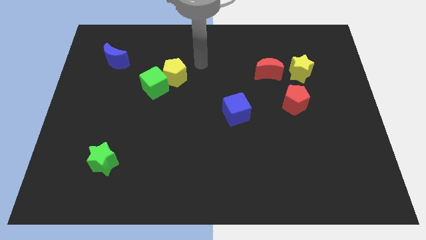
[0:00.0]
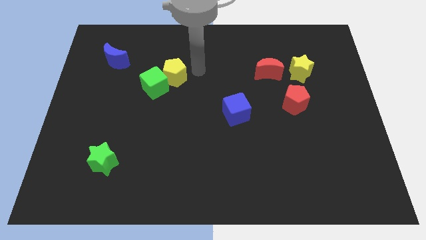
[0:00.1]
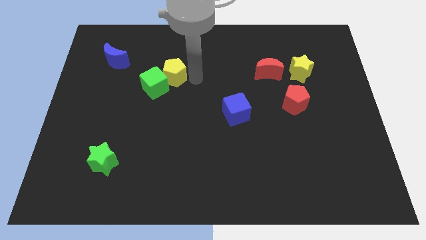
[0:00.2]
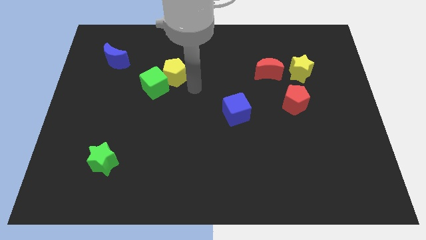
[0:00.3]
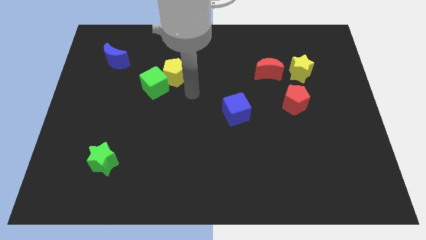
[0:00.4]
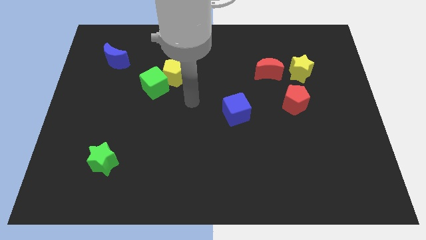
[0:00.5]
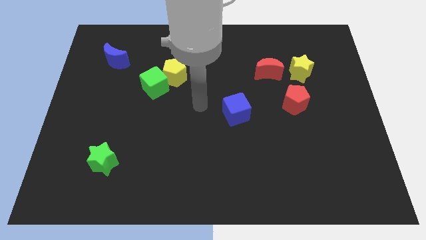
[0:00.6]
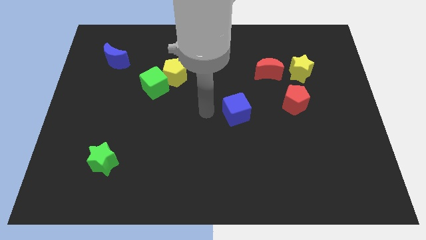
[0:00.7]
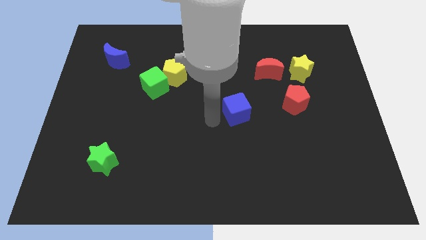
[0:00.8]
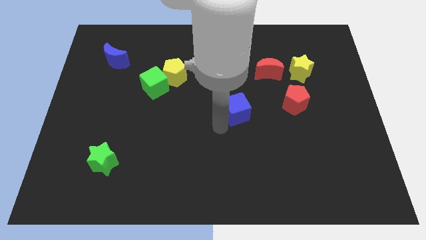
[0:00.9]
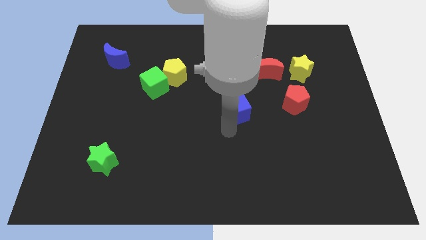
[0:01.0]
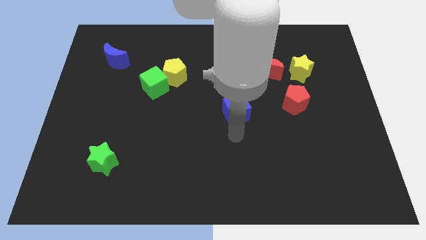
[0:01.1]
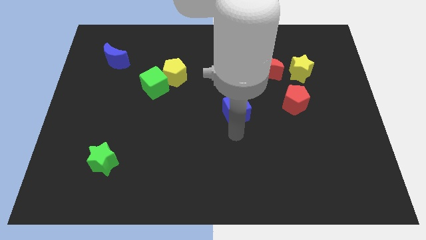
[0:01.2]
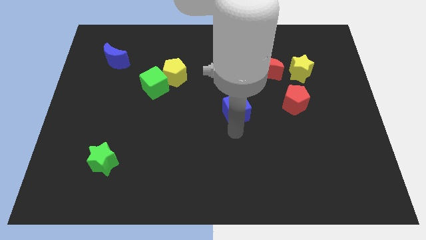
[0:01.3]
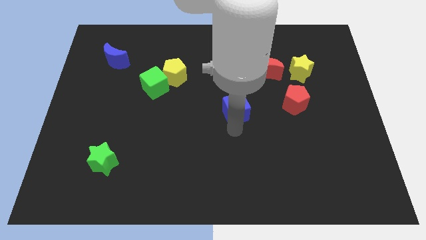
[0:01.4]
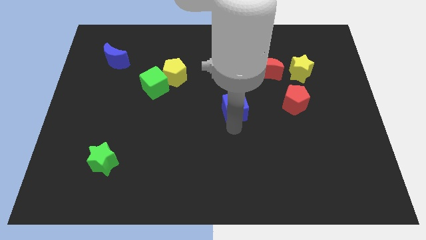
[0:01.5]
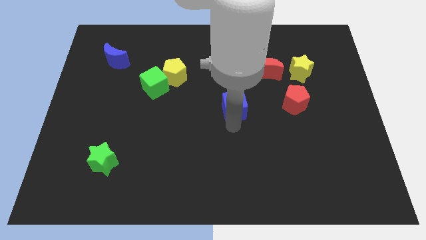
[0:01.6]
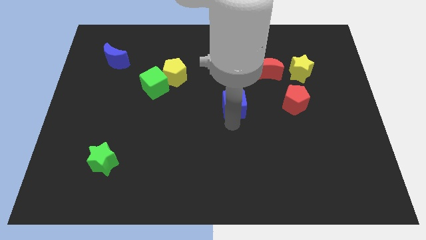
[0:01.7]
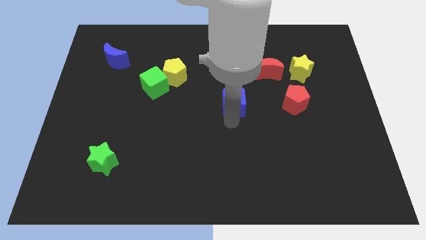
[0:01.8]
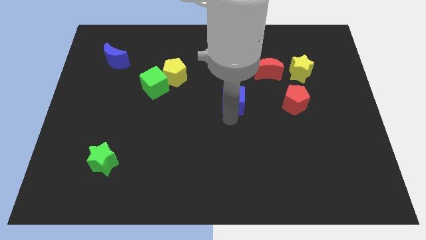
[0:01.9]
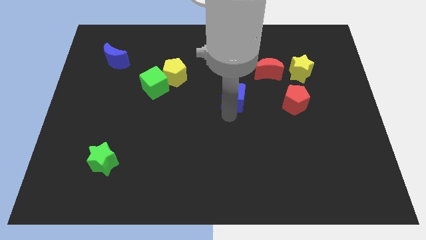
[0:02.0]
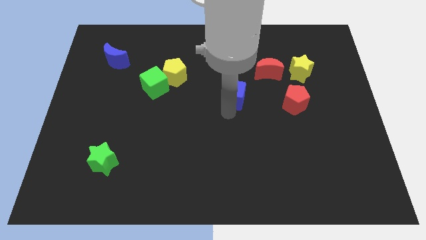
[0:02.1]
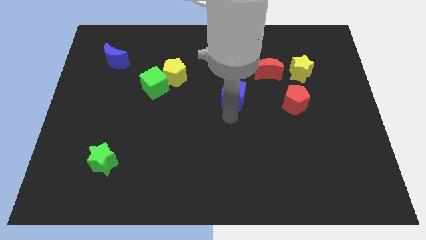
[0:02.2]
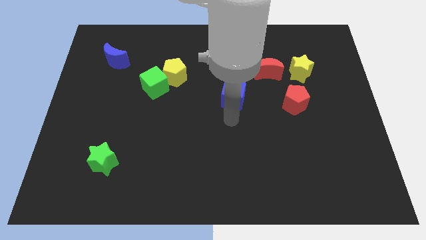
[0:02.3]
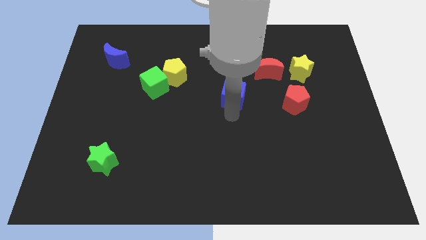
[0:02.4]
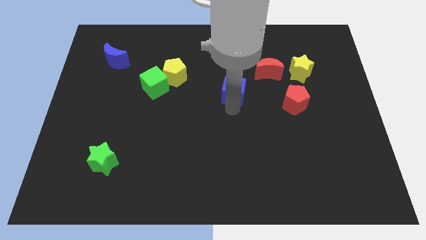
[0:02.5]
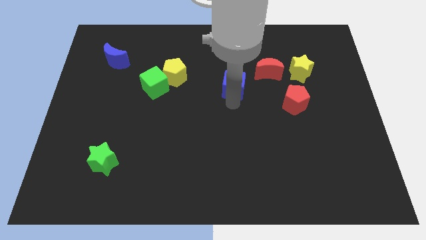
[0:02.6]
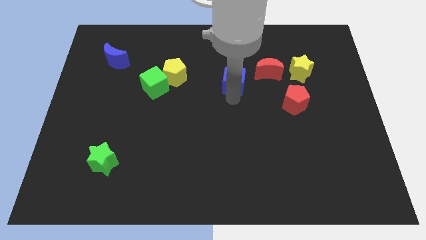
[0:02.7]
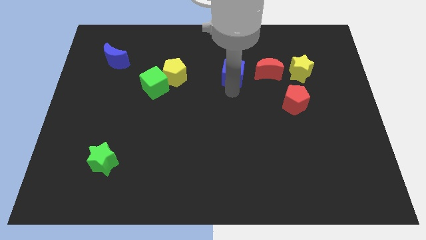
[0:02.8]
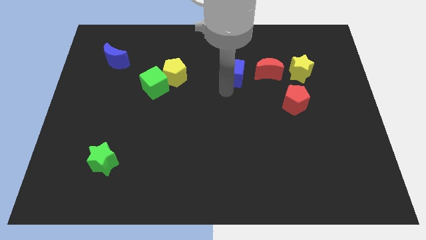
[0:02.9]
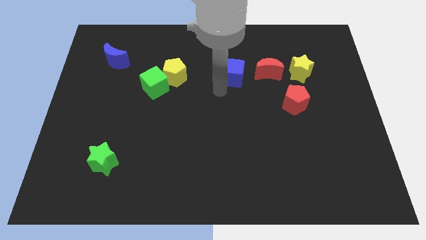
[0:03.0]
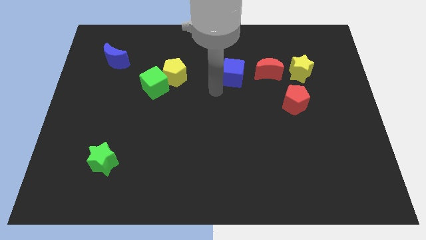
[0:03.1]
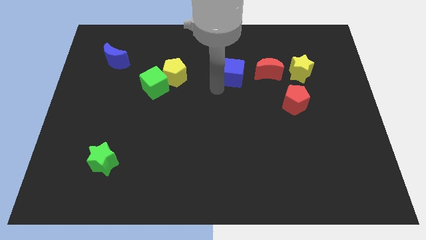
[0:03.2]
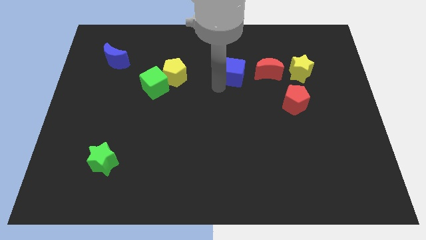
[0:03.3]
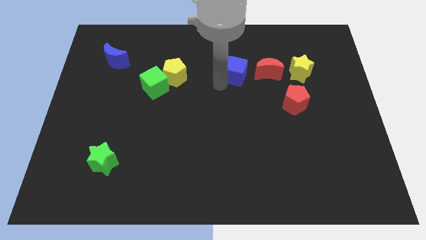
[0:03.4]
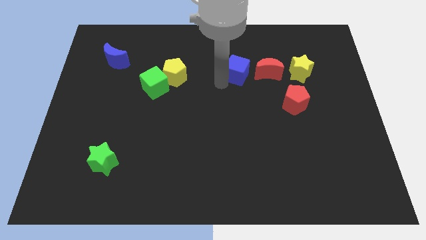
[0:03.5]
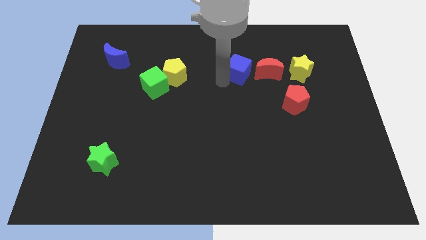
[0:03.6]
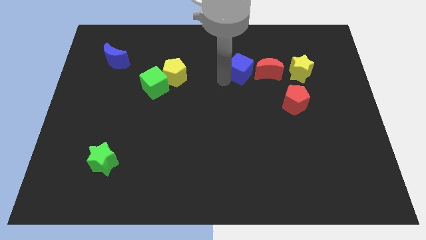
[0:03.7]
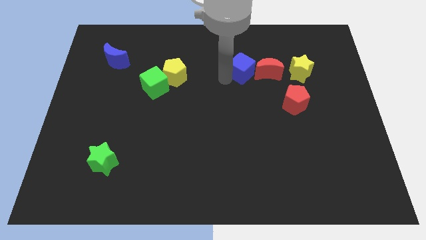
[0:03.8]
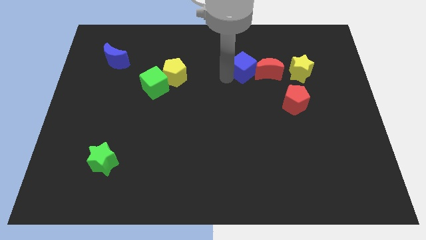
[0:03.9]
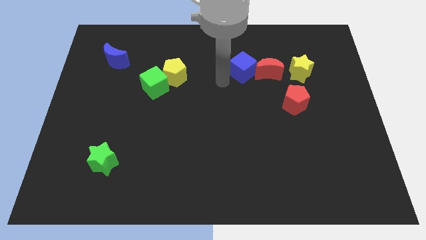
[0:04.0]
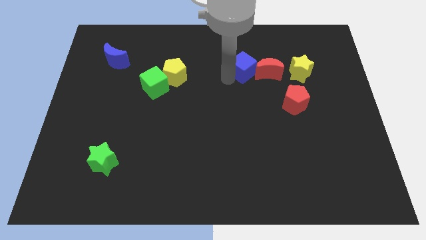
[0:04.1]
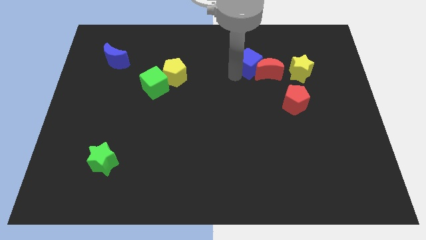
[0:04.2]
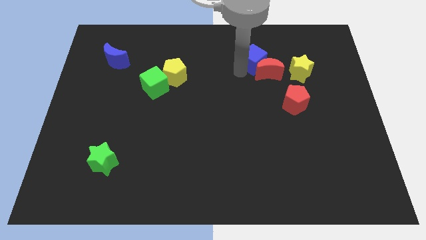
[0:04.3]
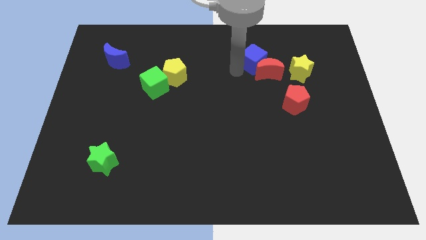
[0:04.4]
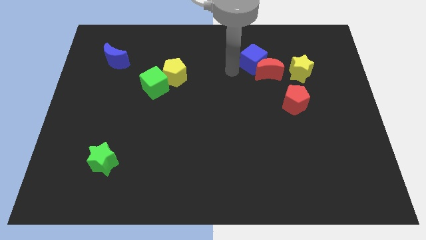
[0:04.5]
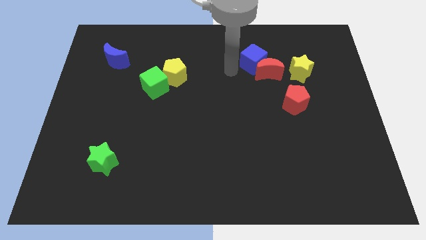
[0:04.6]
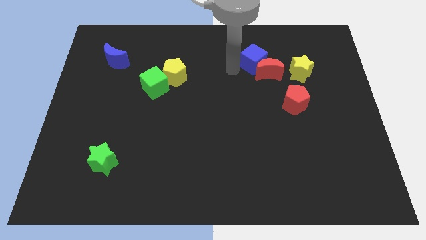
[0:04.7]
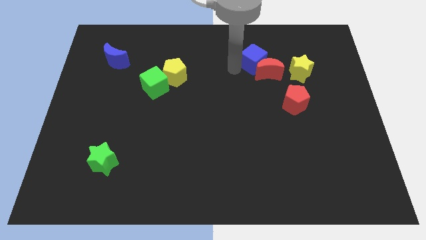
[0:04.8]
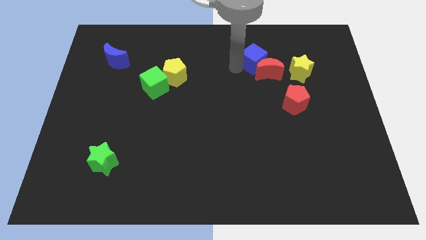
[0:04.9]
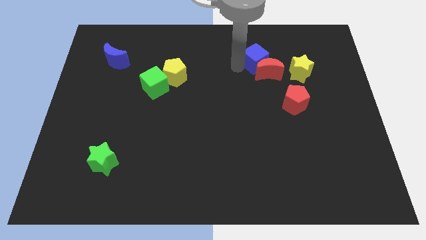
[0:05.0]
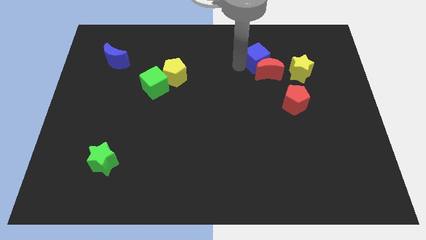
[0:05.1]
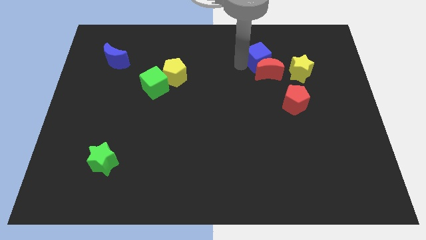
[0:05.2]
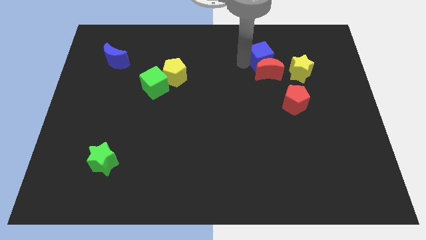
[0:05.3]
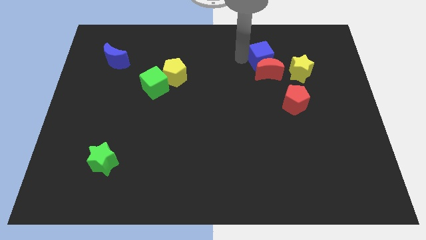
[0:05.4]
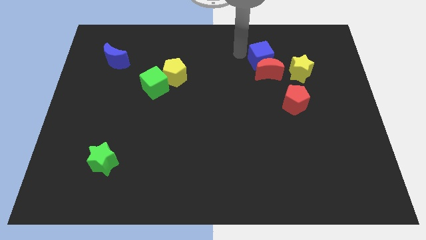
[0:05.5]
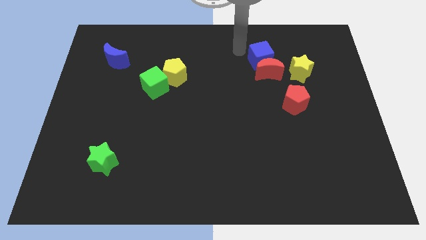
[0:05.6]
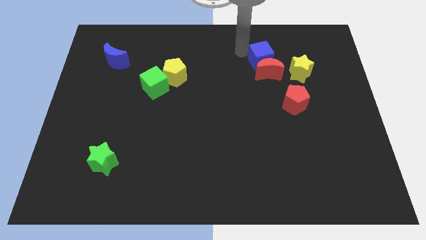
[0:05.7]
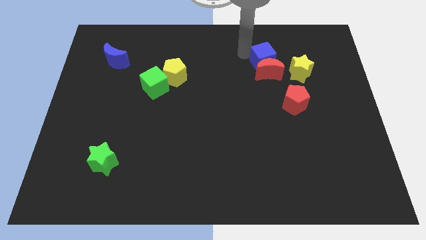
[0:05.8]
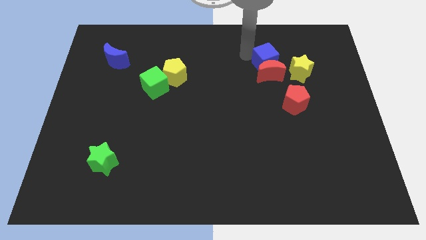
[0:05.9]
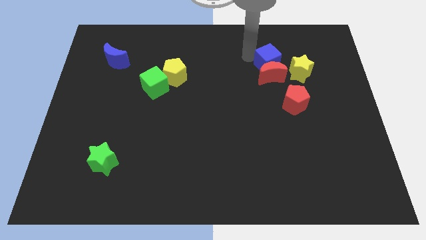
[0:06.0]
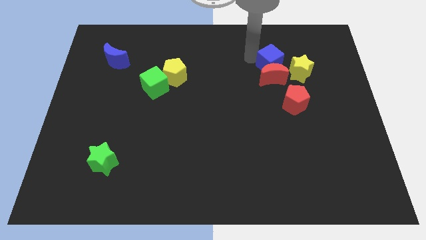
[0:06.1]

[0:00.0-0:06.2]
put the blue cube to the top of the red pentagon

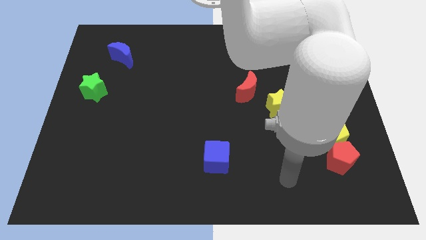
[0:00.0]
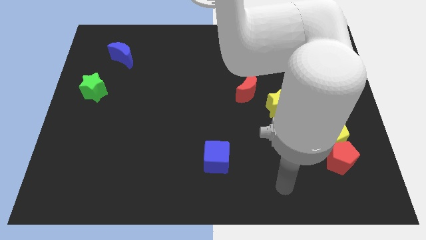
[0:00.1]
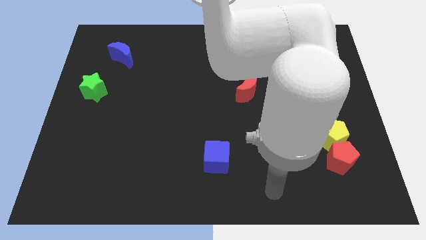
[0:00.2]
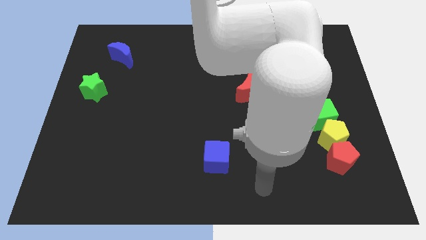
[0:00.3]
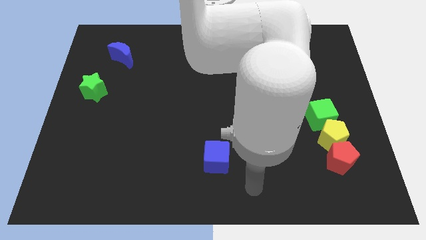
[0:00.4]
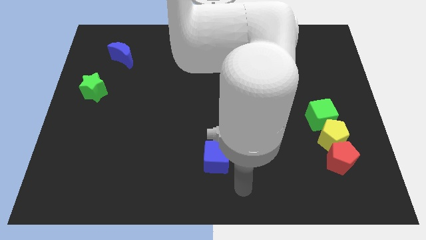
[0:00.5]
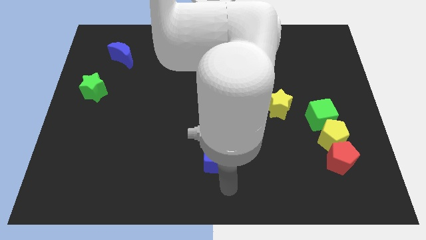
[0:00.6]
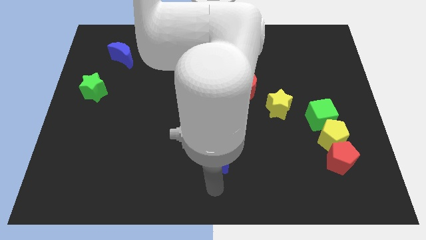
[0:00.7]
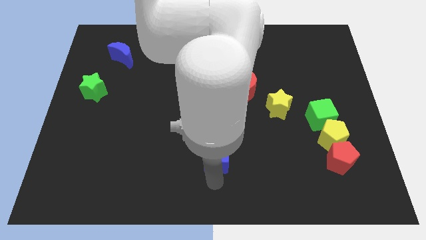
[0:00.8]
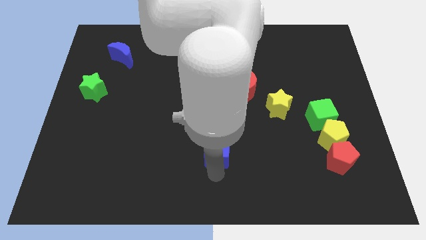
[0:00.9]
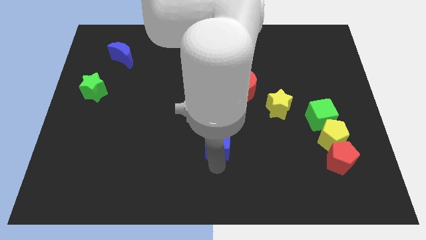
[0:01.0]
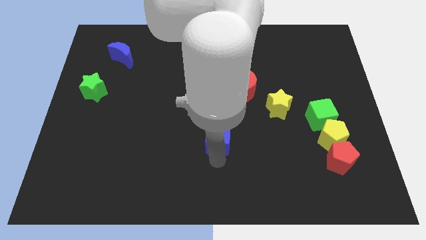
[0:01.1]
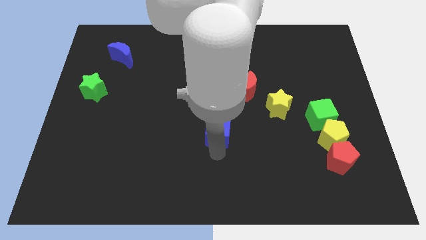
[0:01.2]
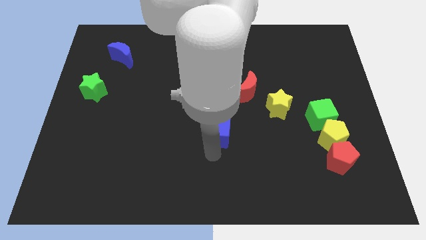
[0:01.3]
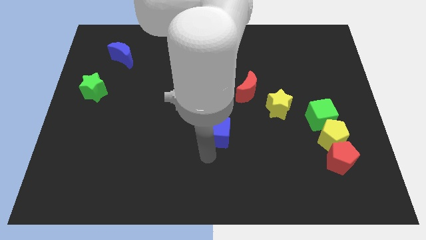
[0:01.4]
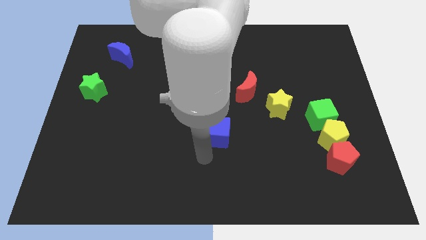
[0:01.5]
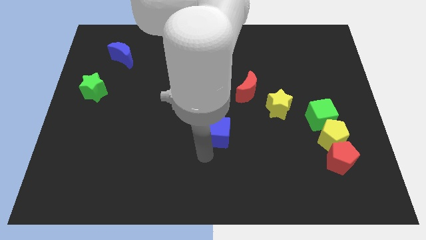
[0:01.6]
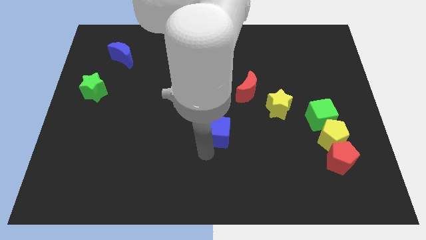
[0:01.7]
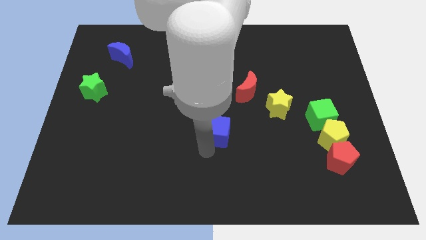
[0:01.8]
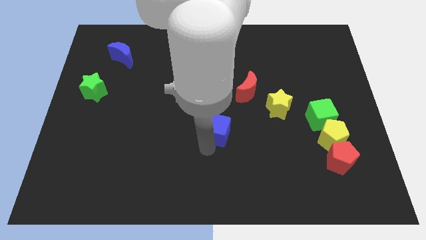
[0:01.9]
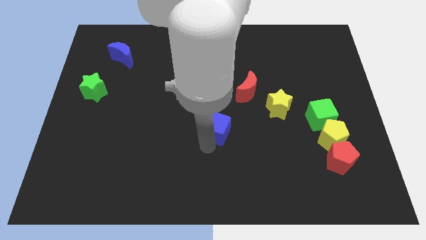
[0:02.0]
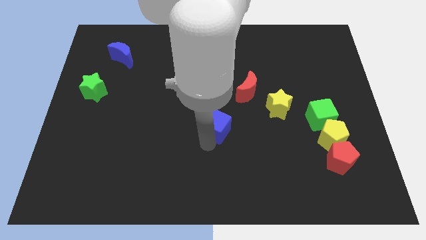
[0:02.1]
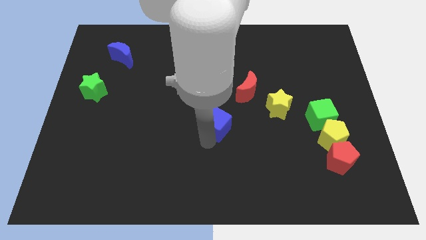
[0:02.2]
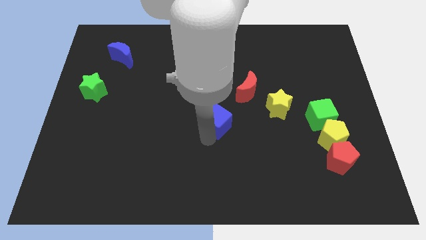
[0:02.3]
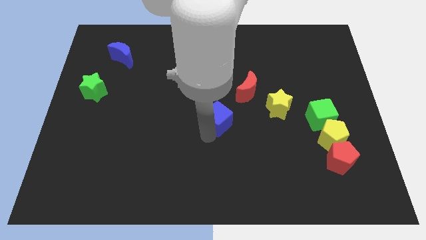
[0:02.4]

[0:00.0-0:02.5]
push the blue cube left of the yellow star
